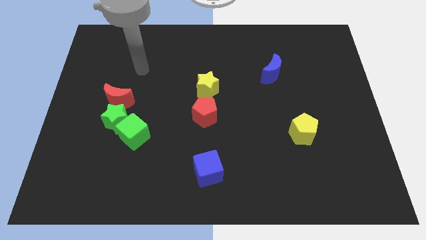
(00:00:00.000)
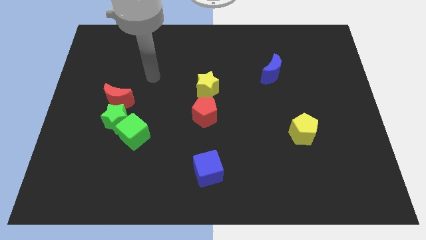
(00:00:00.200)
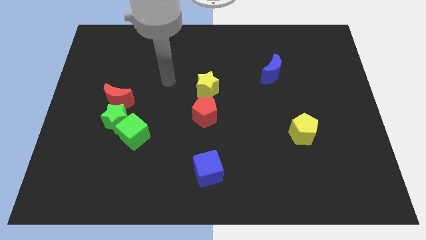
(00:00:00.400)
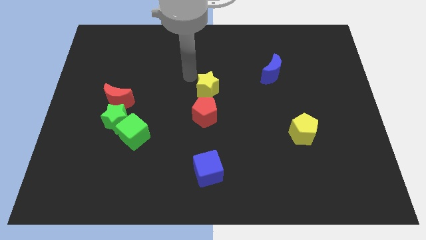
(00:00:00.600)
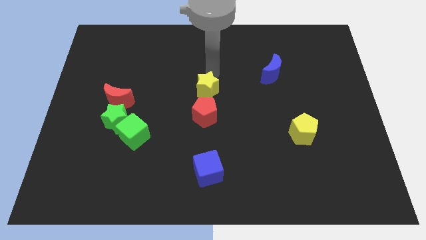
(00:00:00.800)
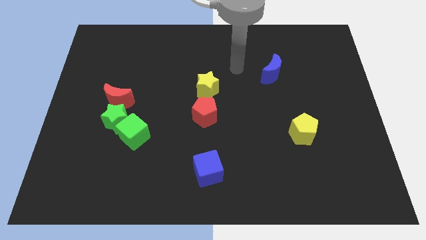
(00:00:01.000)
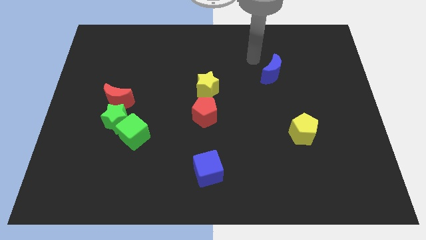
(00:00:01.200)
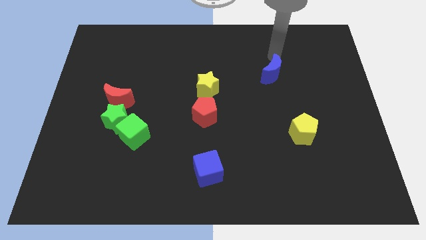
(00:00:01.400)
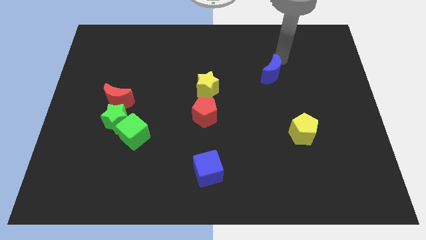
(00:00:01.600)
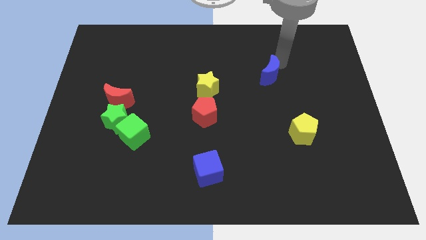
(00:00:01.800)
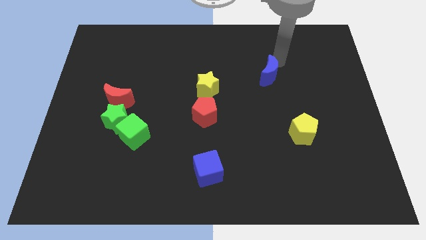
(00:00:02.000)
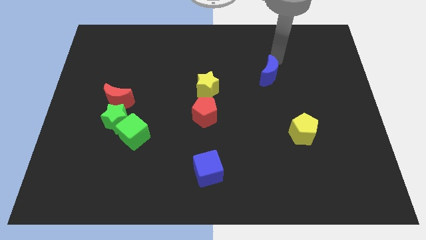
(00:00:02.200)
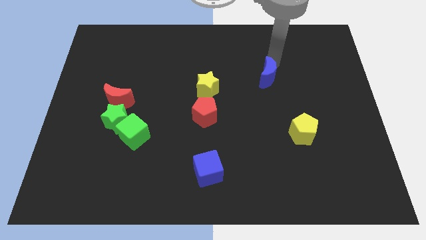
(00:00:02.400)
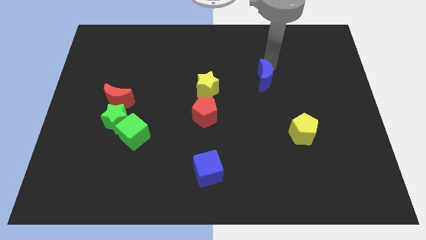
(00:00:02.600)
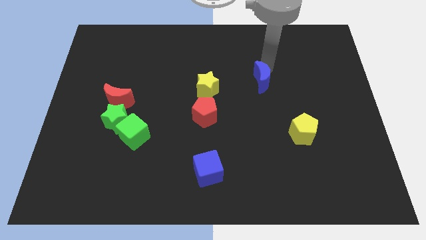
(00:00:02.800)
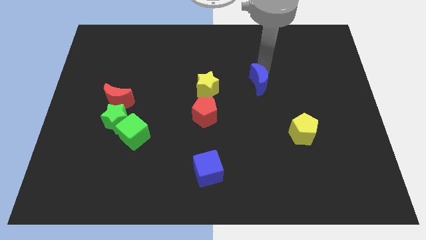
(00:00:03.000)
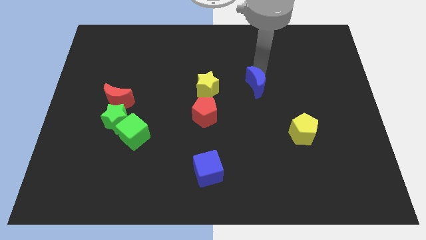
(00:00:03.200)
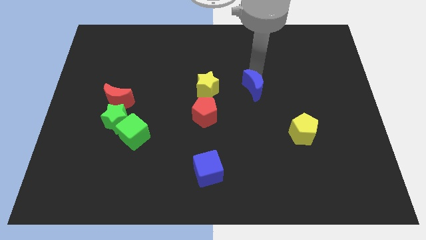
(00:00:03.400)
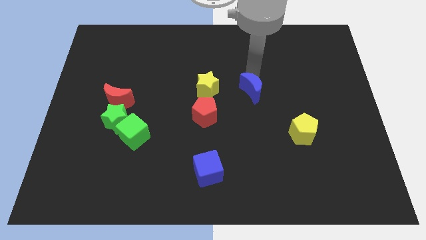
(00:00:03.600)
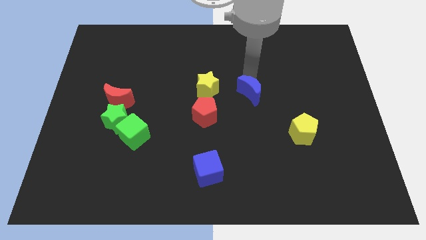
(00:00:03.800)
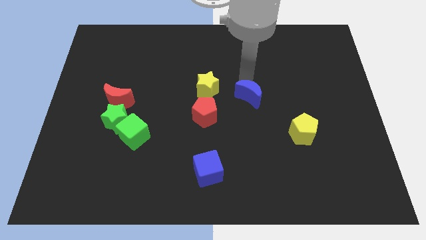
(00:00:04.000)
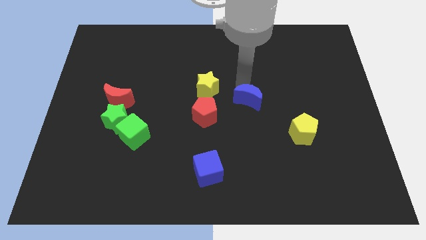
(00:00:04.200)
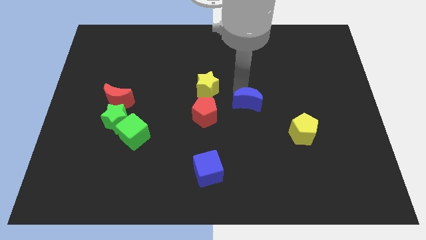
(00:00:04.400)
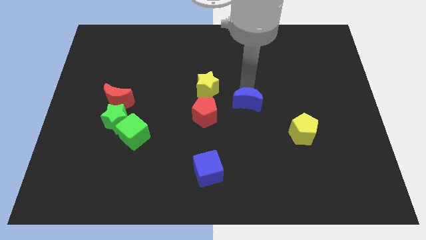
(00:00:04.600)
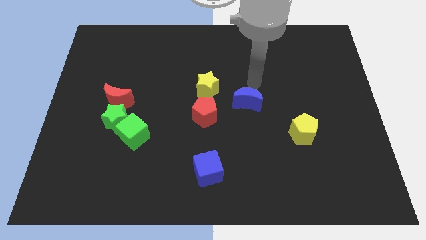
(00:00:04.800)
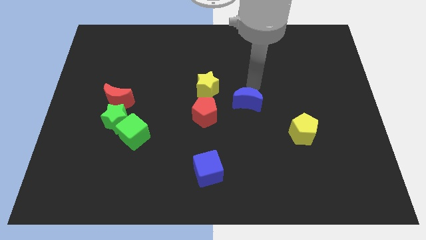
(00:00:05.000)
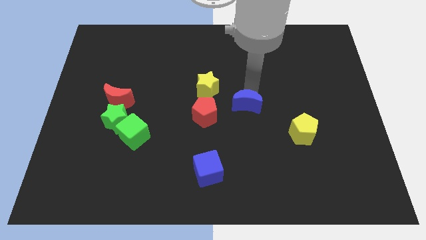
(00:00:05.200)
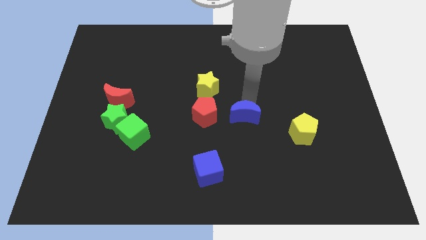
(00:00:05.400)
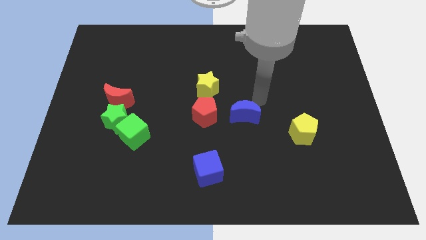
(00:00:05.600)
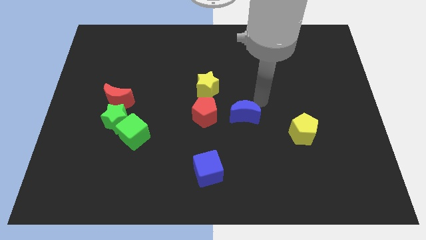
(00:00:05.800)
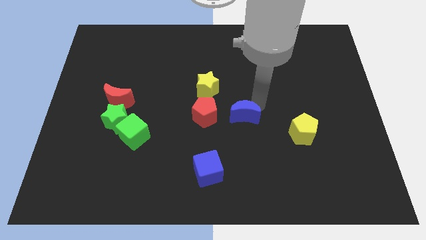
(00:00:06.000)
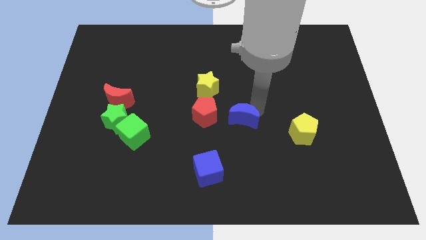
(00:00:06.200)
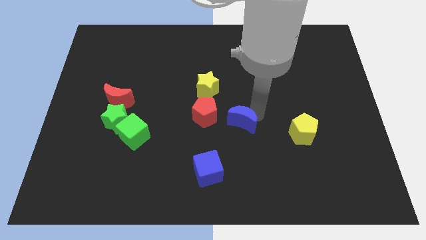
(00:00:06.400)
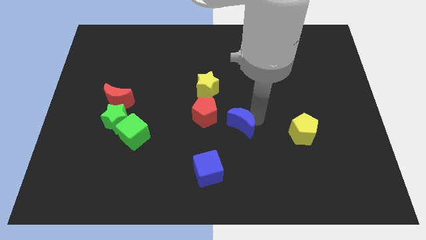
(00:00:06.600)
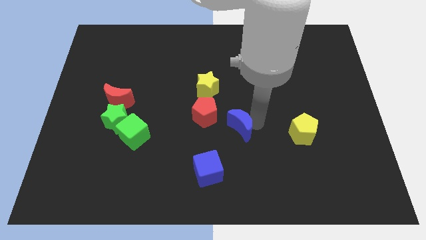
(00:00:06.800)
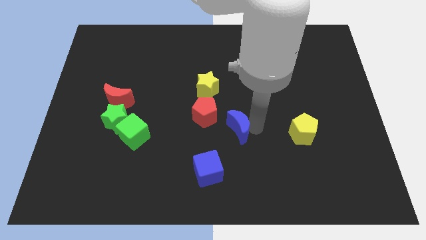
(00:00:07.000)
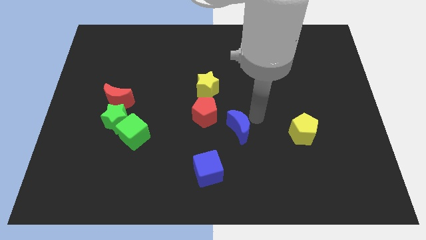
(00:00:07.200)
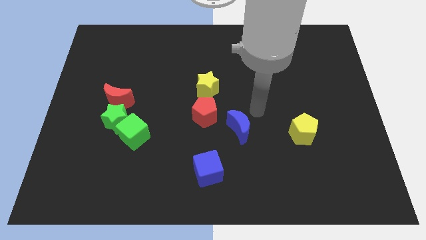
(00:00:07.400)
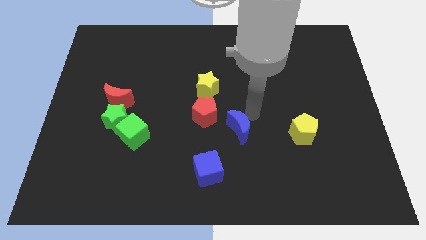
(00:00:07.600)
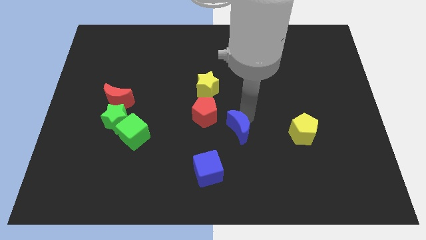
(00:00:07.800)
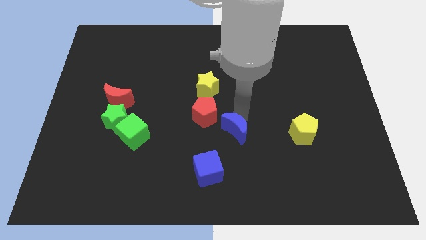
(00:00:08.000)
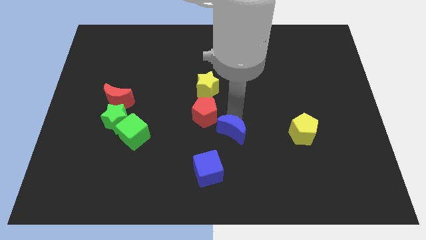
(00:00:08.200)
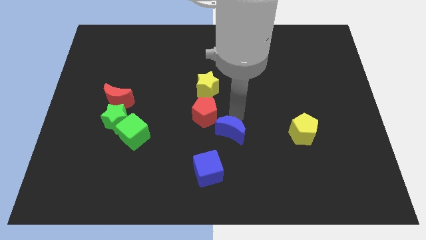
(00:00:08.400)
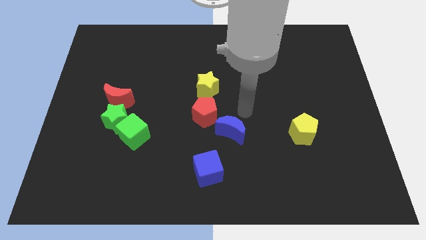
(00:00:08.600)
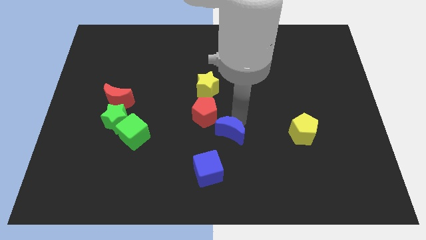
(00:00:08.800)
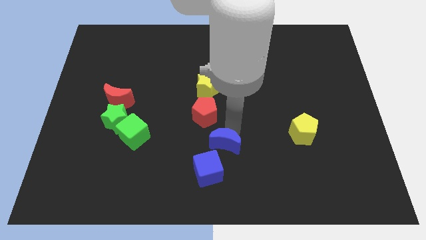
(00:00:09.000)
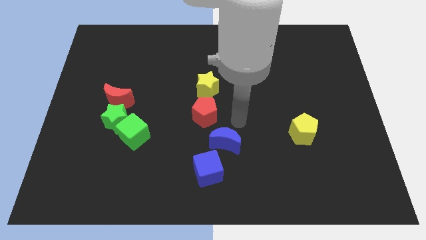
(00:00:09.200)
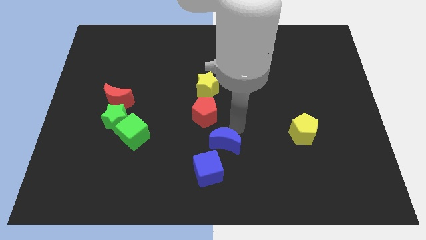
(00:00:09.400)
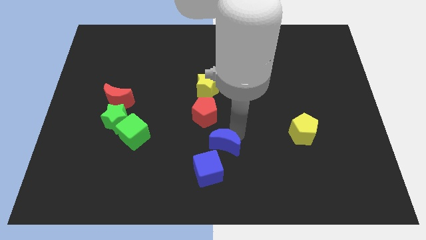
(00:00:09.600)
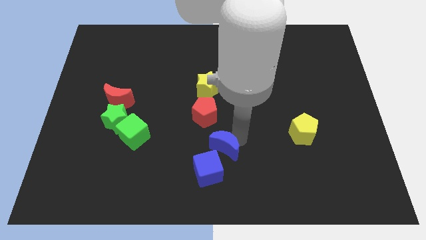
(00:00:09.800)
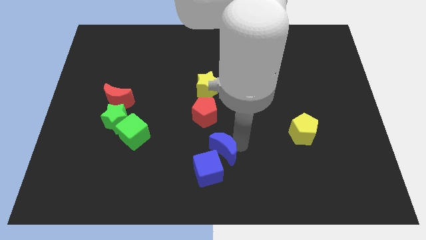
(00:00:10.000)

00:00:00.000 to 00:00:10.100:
put the blue moon next to the blue cube

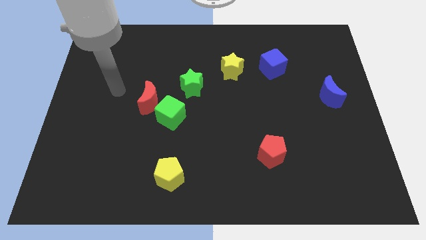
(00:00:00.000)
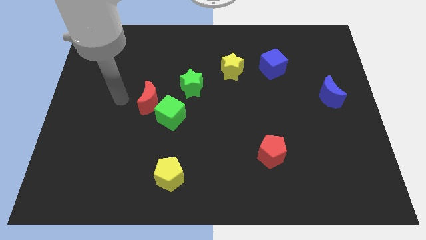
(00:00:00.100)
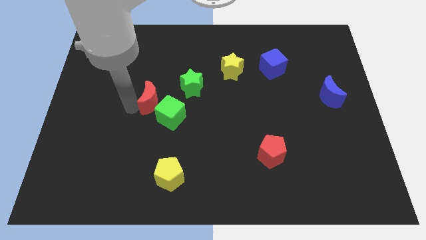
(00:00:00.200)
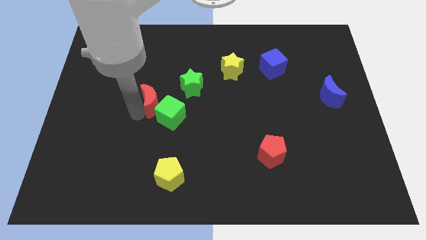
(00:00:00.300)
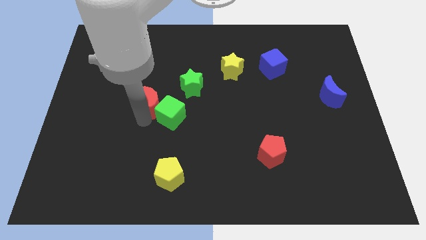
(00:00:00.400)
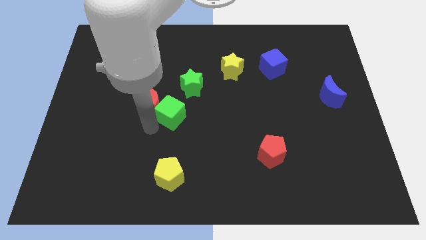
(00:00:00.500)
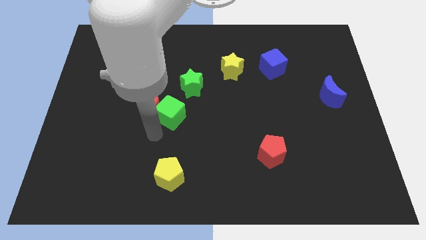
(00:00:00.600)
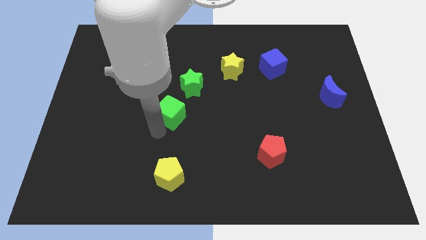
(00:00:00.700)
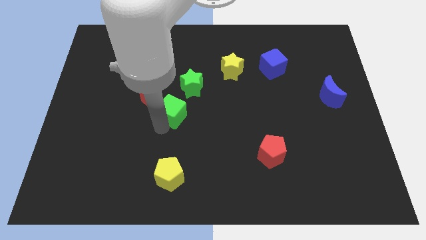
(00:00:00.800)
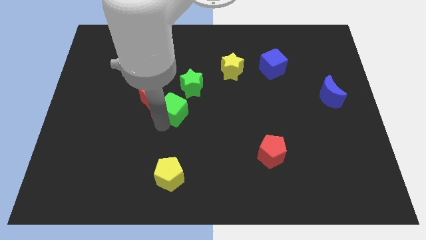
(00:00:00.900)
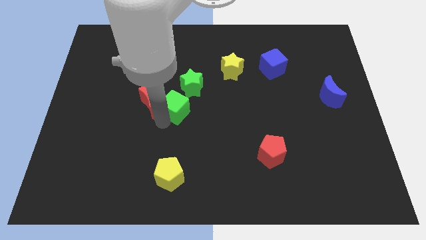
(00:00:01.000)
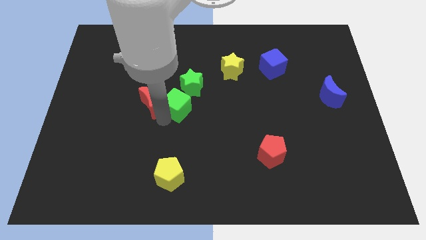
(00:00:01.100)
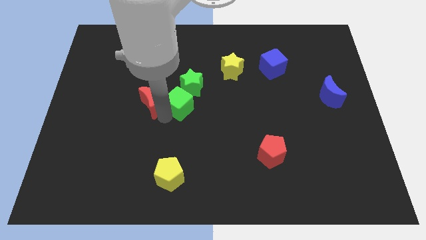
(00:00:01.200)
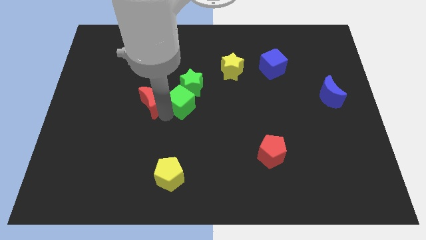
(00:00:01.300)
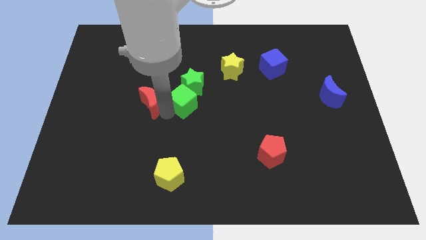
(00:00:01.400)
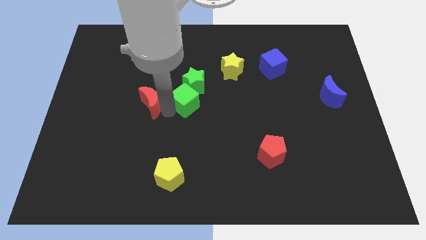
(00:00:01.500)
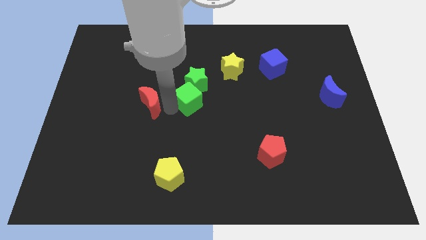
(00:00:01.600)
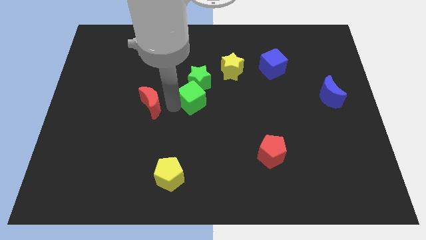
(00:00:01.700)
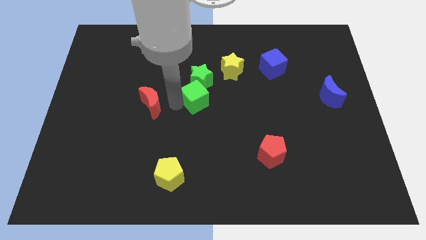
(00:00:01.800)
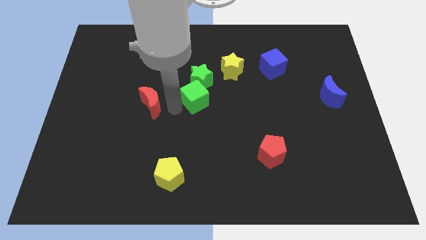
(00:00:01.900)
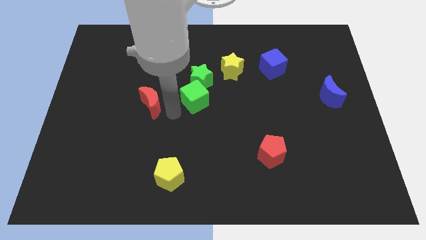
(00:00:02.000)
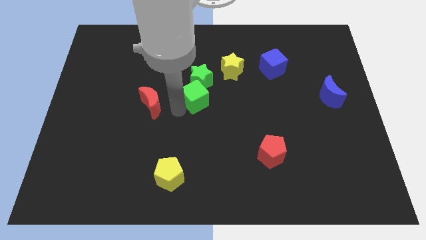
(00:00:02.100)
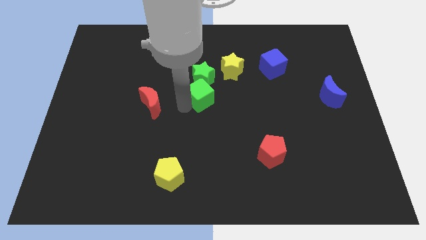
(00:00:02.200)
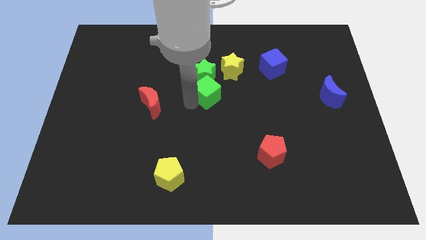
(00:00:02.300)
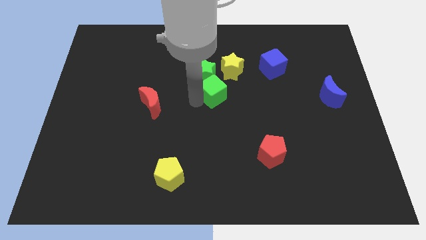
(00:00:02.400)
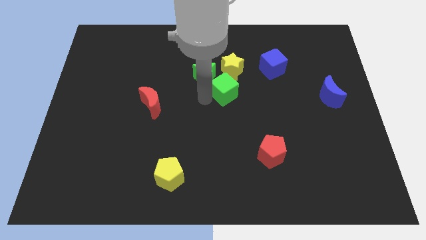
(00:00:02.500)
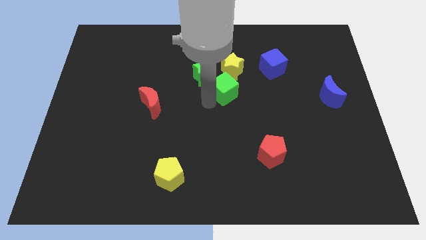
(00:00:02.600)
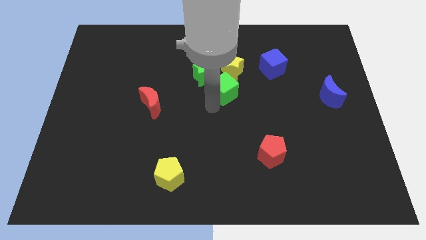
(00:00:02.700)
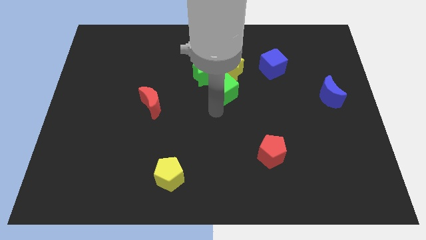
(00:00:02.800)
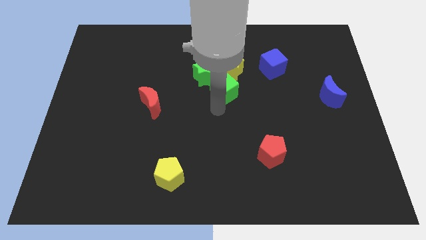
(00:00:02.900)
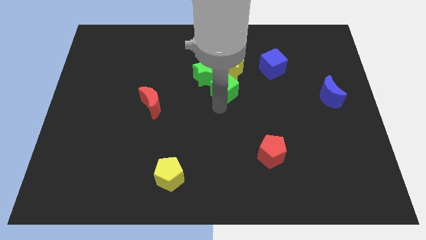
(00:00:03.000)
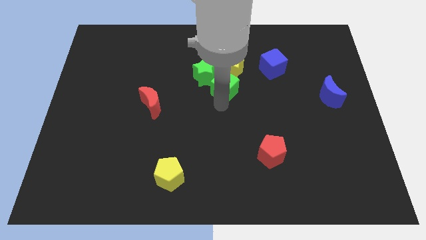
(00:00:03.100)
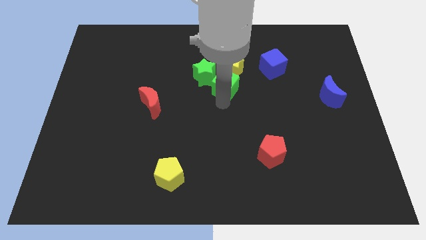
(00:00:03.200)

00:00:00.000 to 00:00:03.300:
move the green cube close to the yellow star
